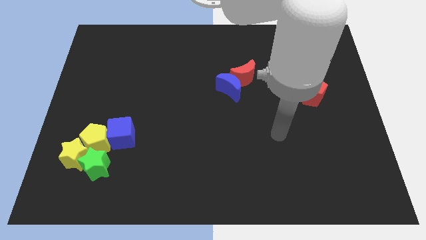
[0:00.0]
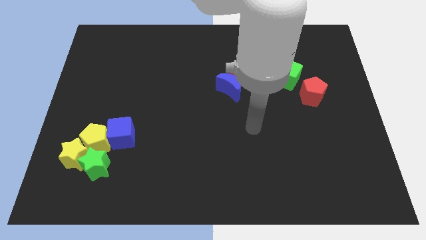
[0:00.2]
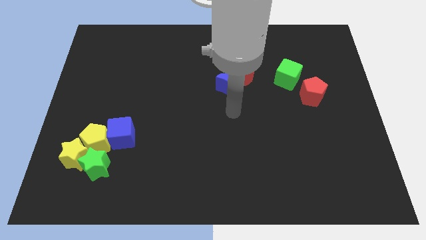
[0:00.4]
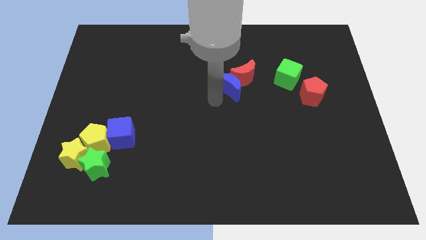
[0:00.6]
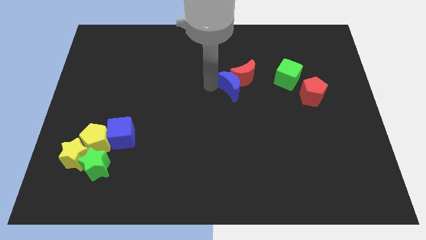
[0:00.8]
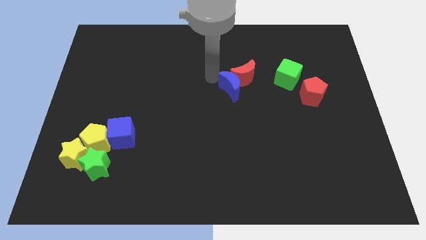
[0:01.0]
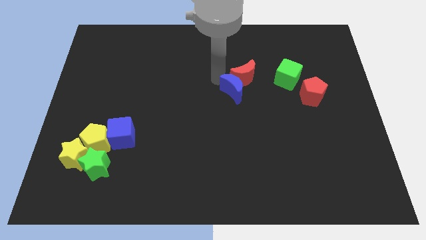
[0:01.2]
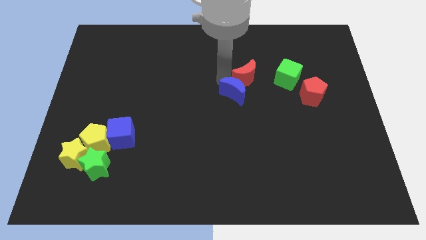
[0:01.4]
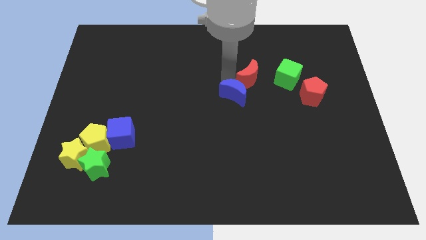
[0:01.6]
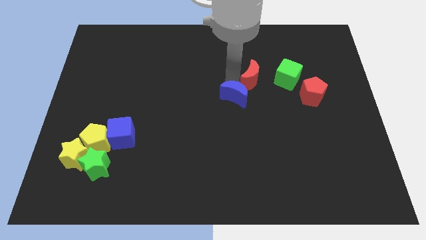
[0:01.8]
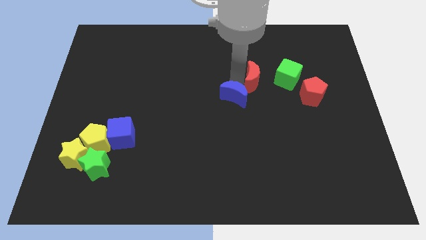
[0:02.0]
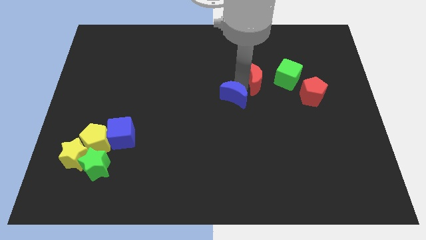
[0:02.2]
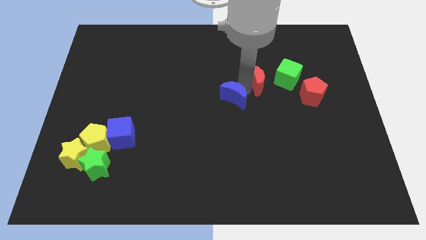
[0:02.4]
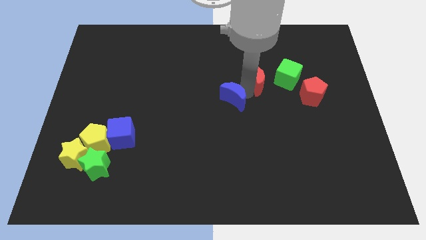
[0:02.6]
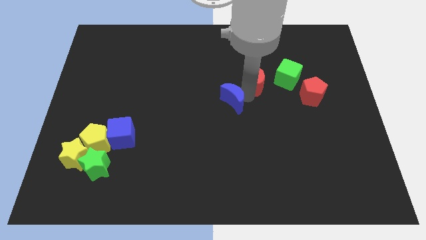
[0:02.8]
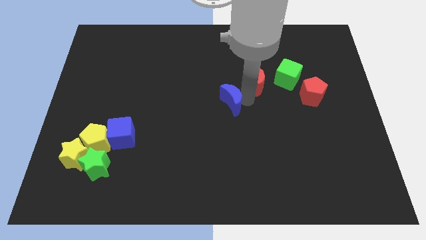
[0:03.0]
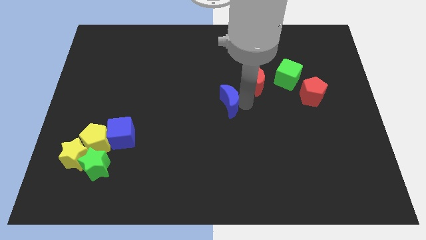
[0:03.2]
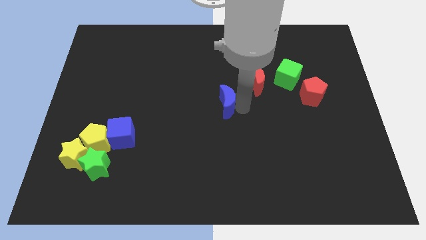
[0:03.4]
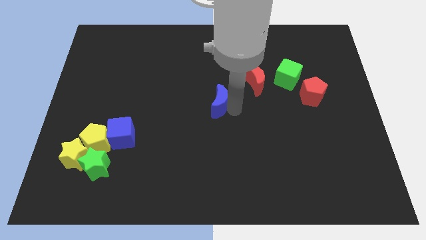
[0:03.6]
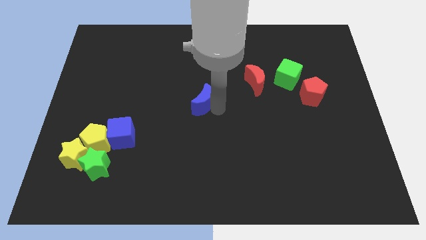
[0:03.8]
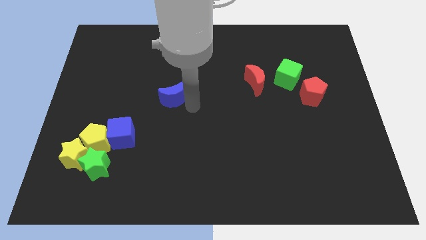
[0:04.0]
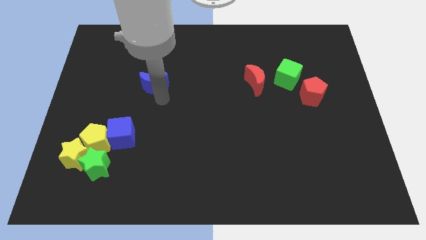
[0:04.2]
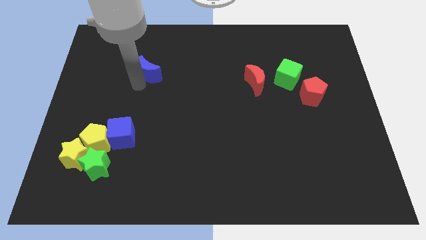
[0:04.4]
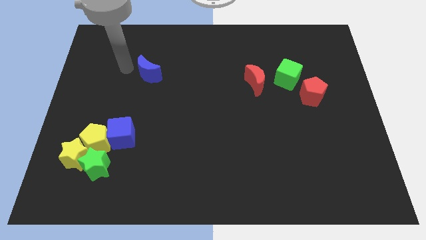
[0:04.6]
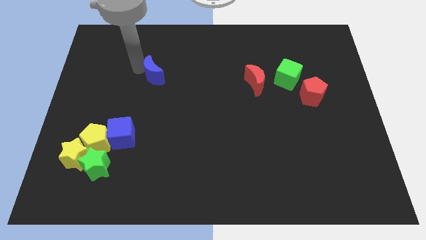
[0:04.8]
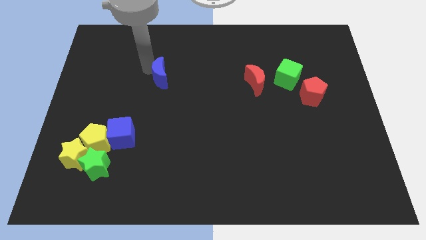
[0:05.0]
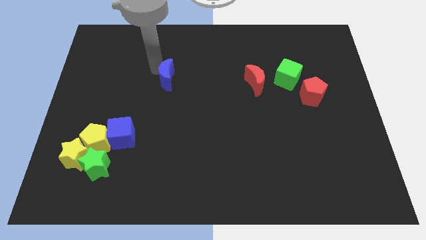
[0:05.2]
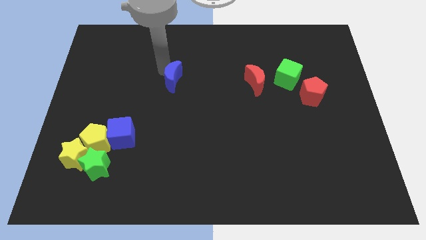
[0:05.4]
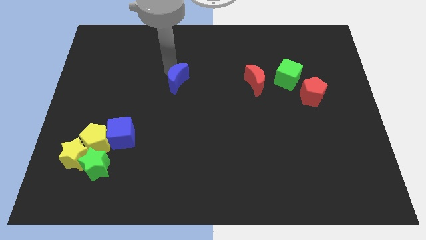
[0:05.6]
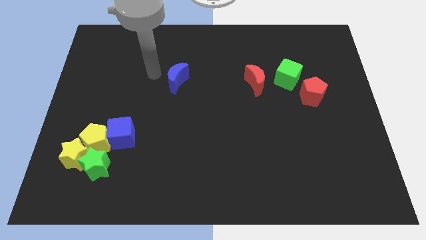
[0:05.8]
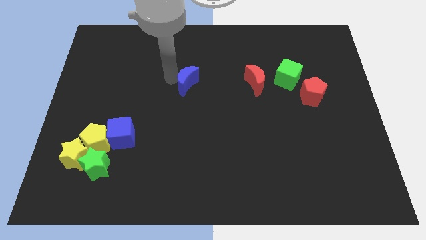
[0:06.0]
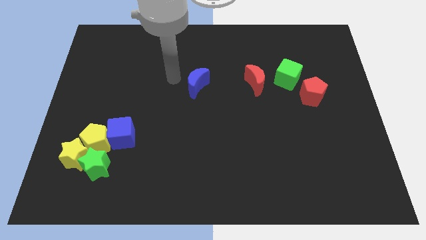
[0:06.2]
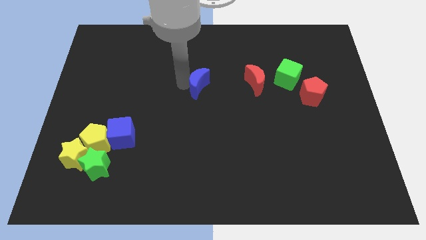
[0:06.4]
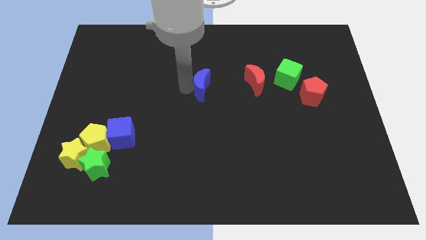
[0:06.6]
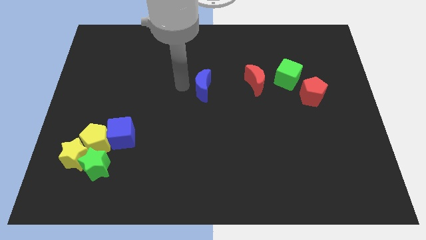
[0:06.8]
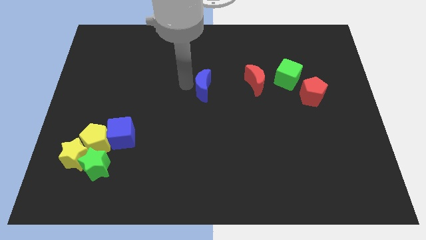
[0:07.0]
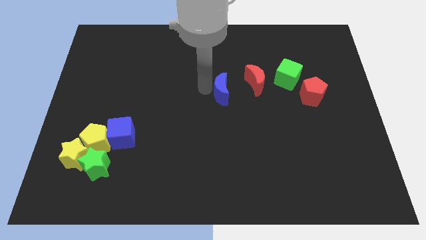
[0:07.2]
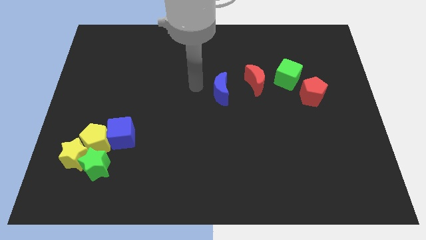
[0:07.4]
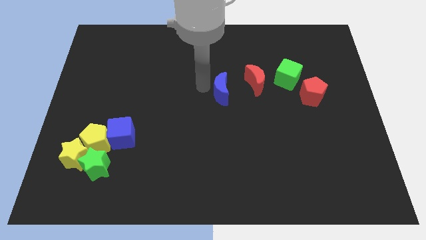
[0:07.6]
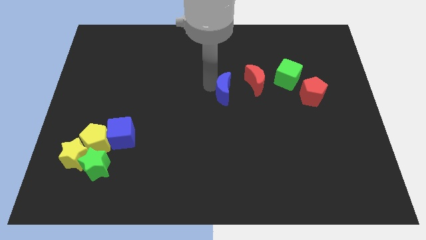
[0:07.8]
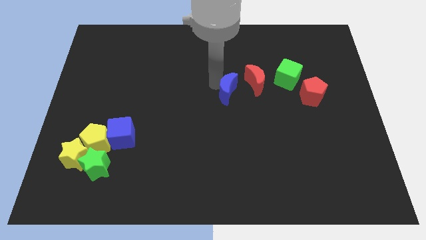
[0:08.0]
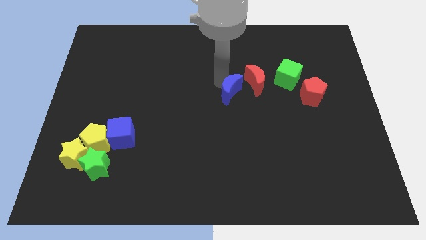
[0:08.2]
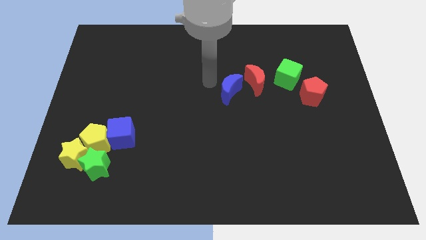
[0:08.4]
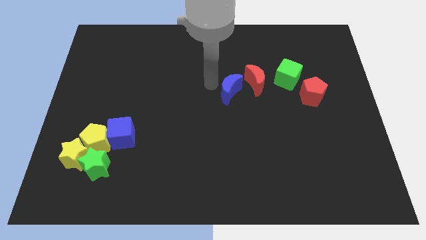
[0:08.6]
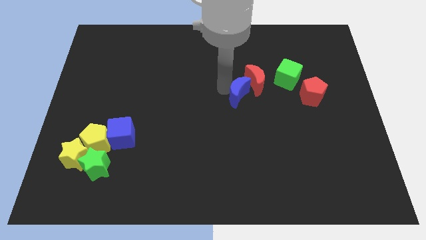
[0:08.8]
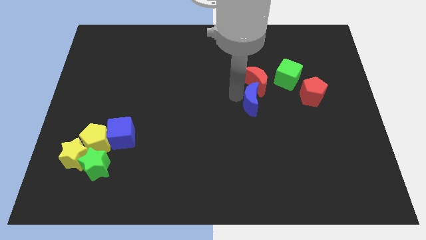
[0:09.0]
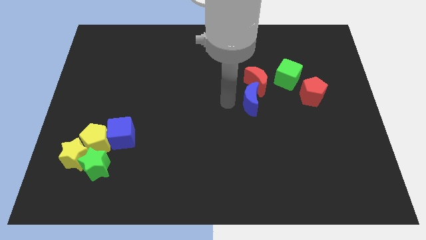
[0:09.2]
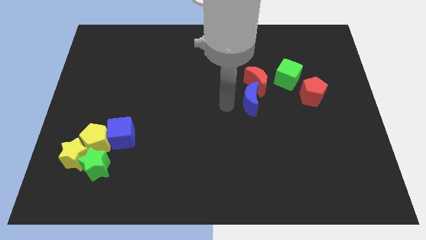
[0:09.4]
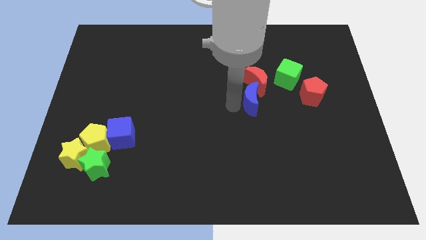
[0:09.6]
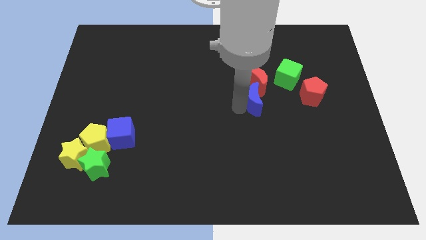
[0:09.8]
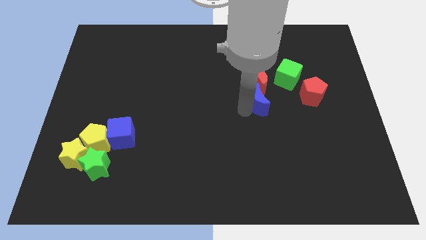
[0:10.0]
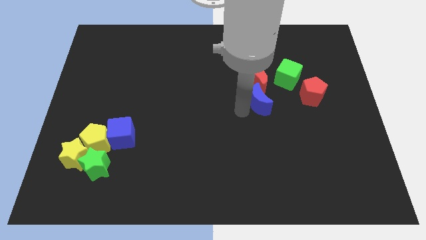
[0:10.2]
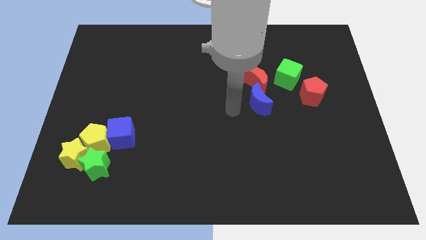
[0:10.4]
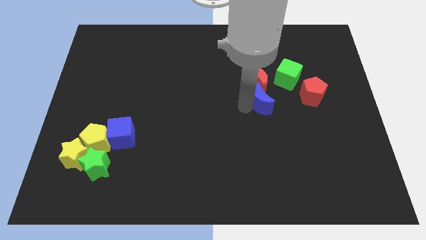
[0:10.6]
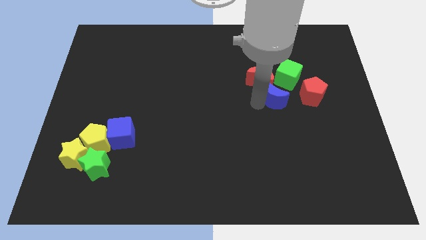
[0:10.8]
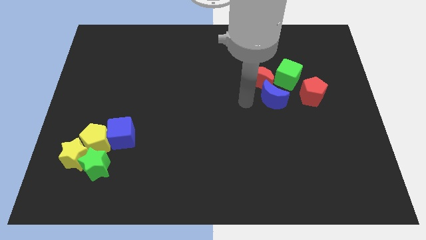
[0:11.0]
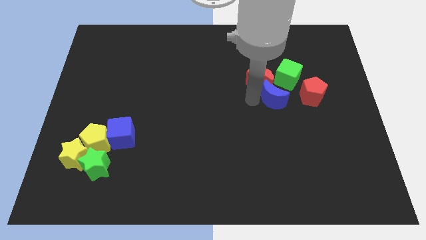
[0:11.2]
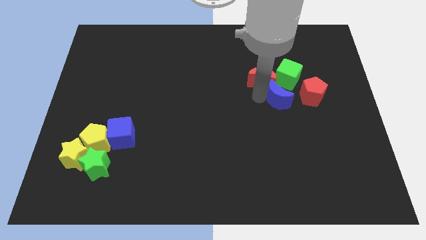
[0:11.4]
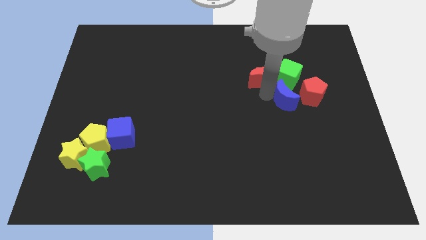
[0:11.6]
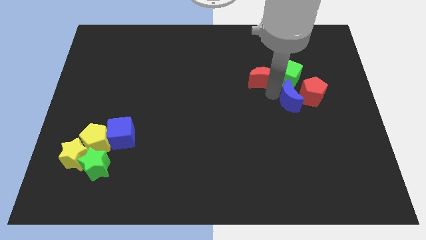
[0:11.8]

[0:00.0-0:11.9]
push the blue moon close to the red pentagon

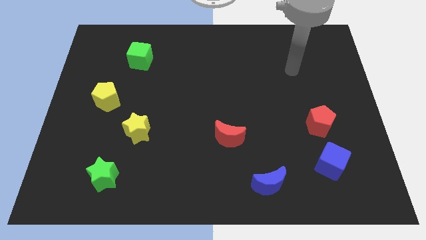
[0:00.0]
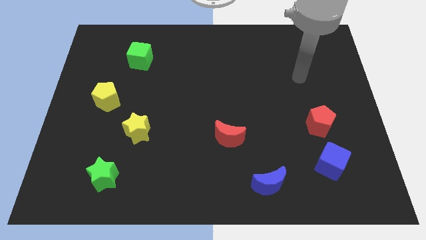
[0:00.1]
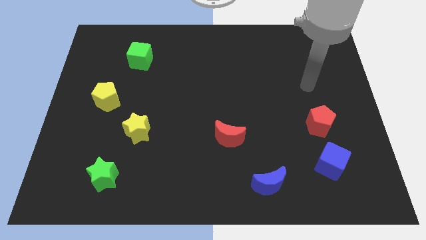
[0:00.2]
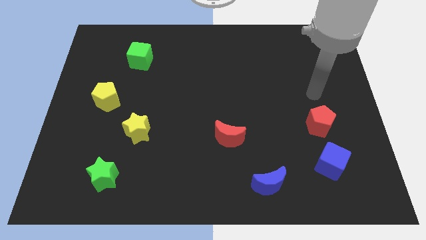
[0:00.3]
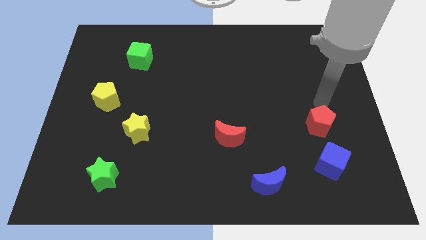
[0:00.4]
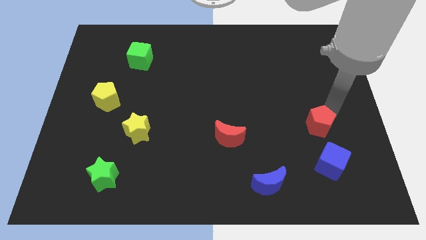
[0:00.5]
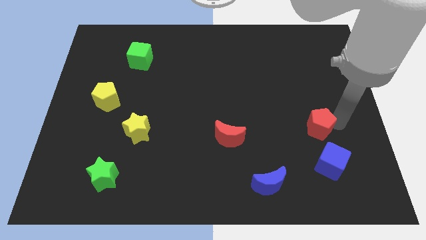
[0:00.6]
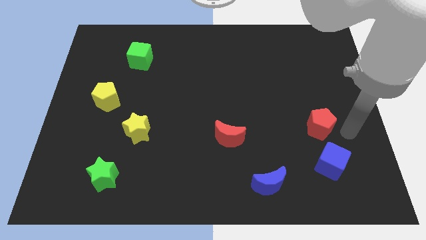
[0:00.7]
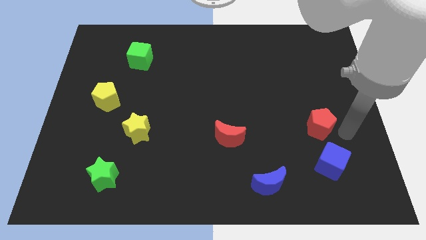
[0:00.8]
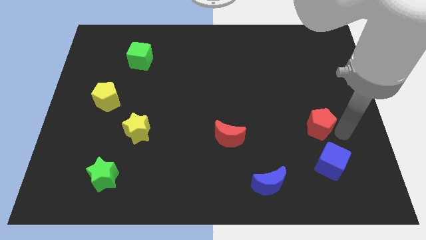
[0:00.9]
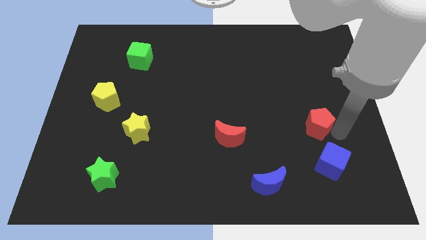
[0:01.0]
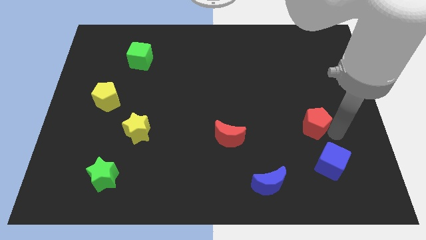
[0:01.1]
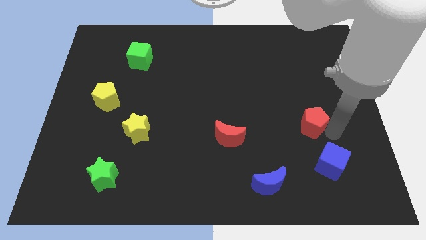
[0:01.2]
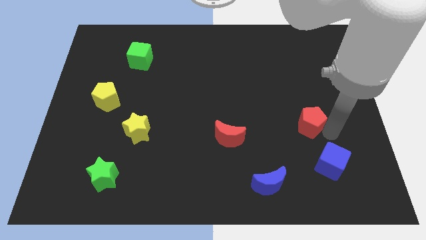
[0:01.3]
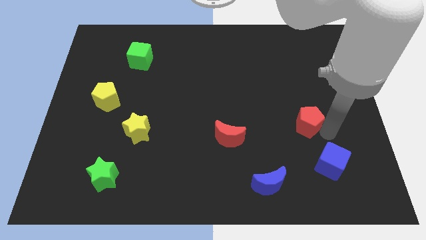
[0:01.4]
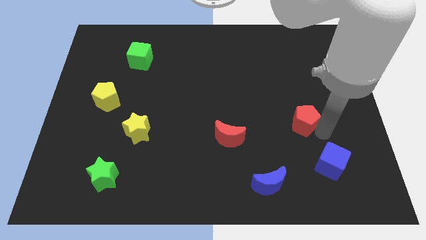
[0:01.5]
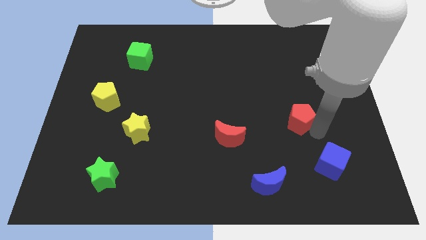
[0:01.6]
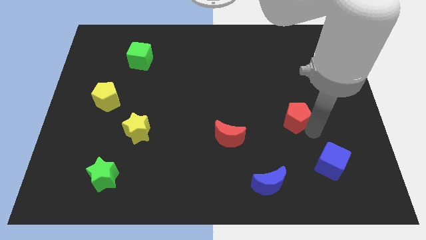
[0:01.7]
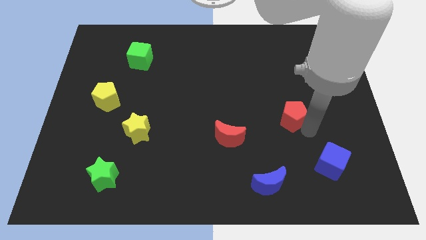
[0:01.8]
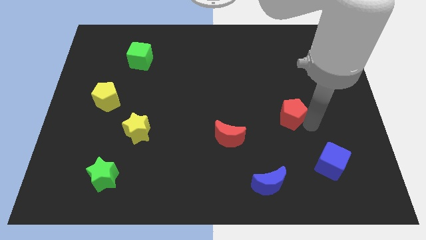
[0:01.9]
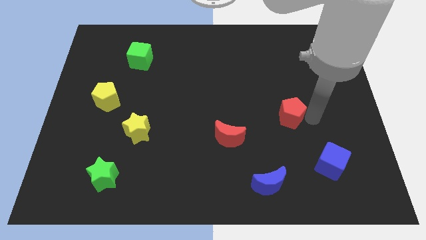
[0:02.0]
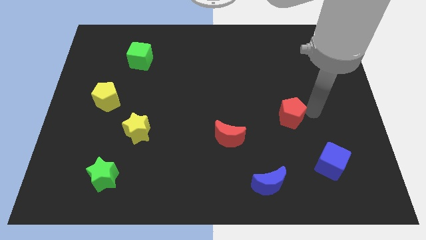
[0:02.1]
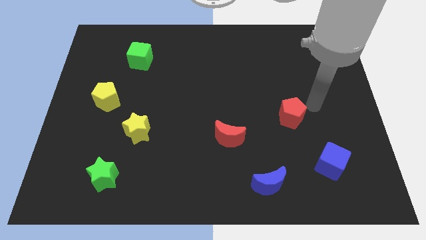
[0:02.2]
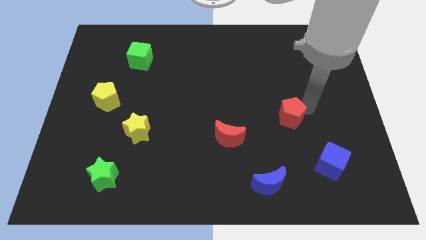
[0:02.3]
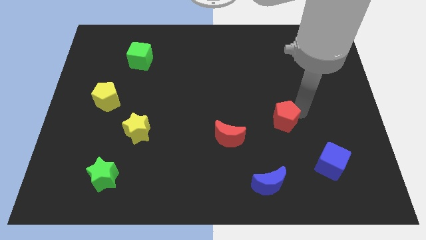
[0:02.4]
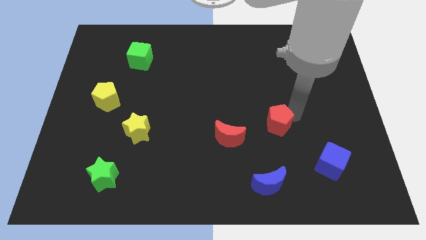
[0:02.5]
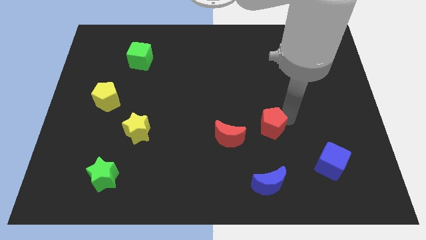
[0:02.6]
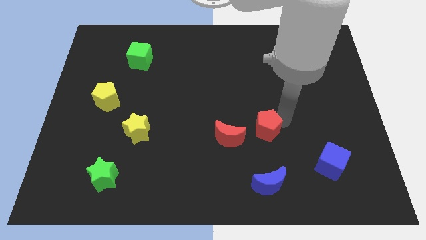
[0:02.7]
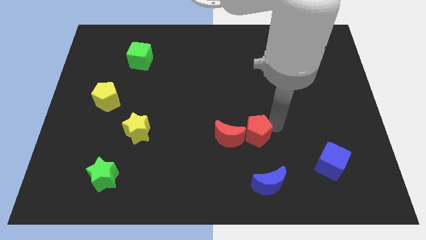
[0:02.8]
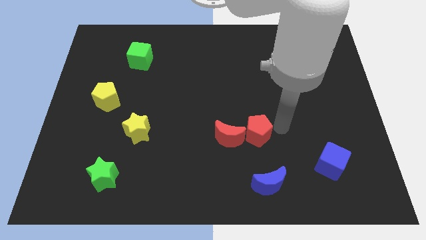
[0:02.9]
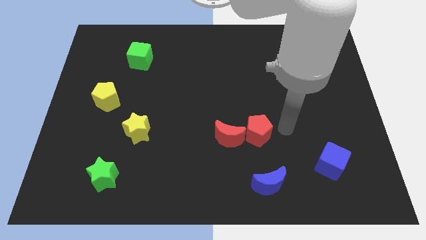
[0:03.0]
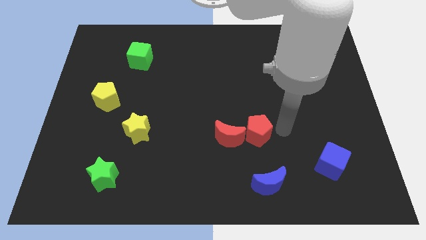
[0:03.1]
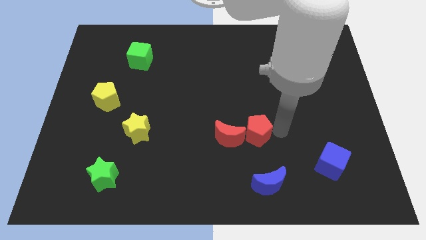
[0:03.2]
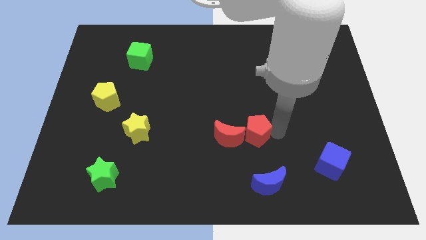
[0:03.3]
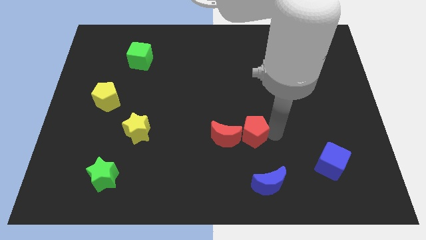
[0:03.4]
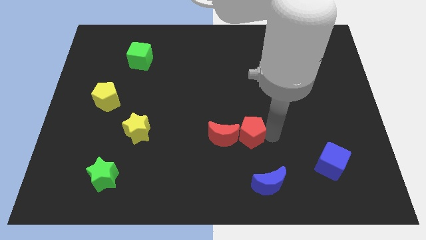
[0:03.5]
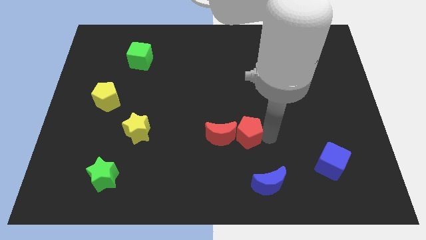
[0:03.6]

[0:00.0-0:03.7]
slide the red pentagon next to the red moon
